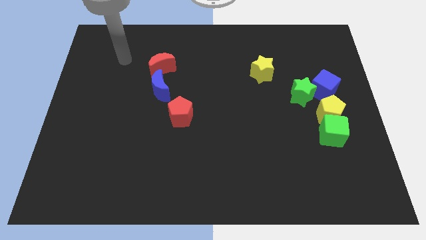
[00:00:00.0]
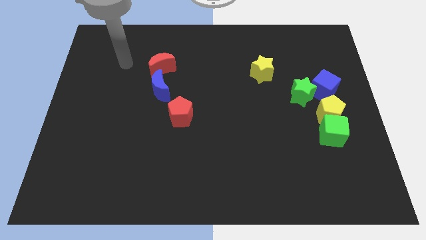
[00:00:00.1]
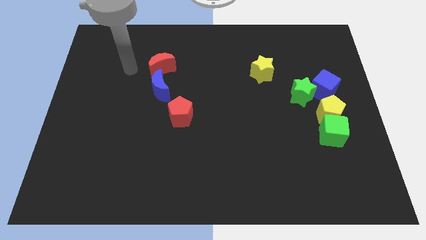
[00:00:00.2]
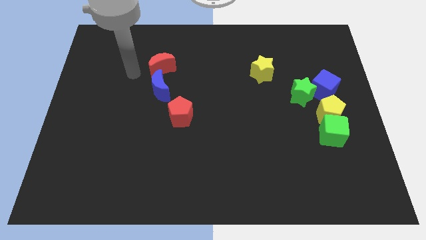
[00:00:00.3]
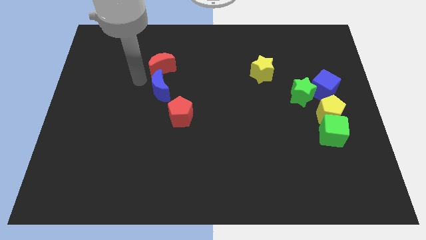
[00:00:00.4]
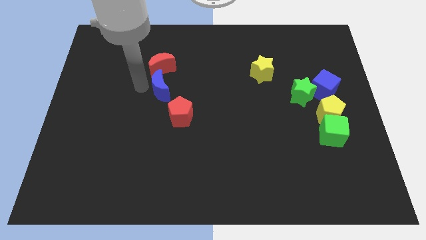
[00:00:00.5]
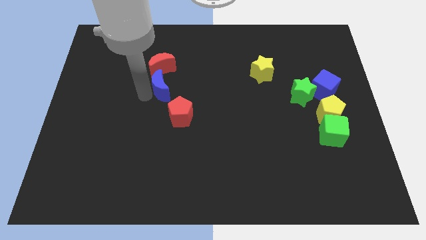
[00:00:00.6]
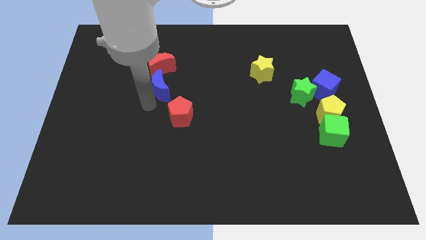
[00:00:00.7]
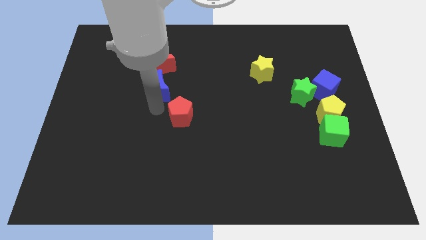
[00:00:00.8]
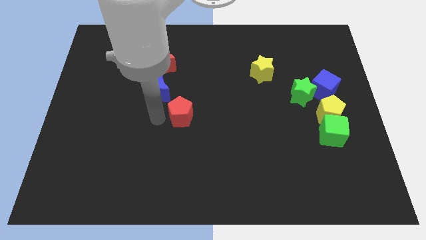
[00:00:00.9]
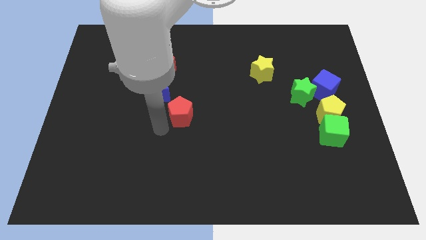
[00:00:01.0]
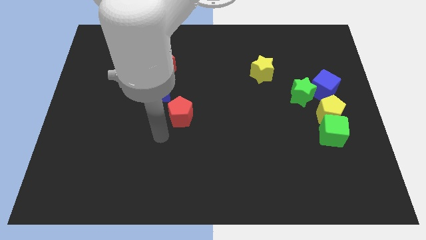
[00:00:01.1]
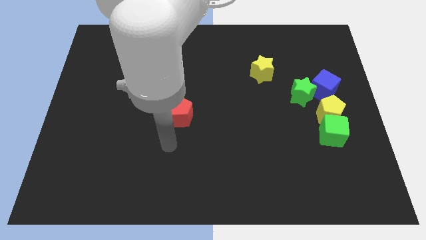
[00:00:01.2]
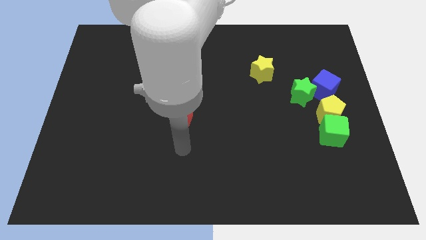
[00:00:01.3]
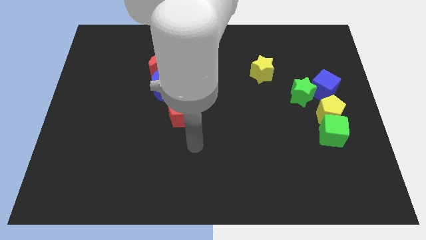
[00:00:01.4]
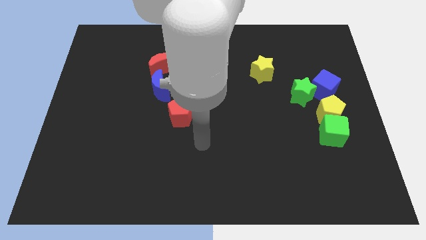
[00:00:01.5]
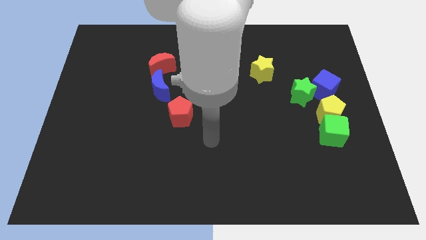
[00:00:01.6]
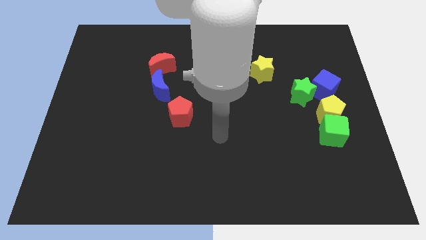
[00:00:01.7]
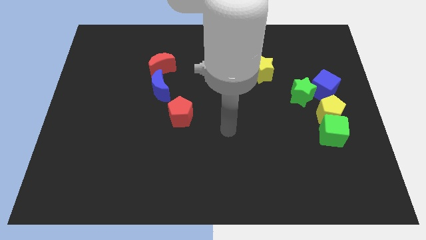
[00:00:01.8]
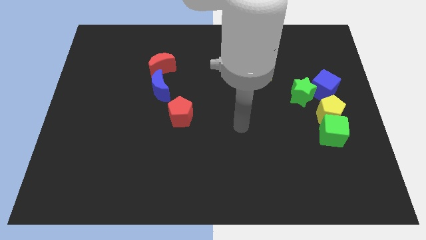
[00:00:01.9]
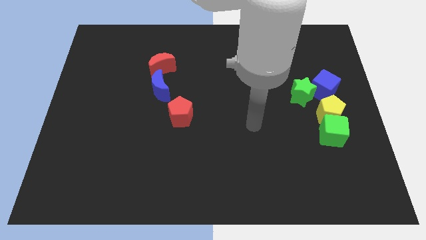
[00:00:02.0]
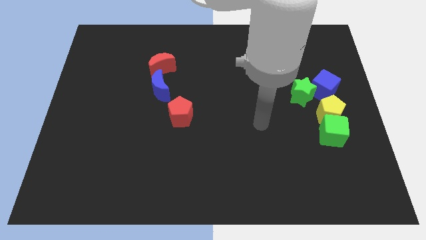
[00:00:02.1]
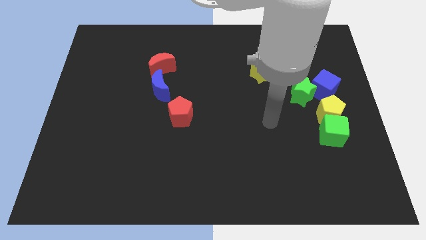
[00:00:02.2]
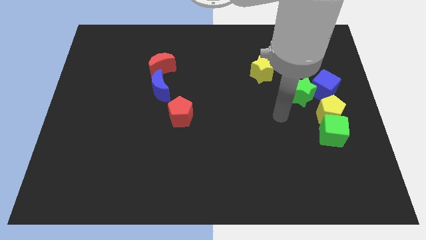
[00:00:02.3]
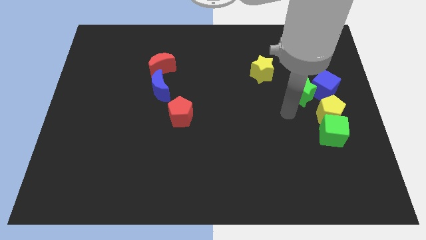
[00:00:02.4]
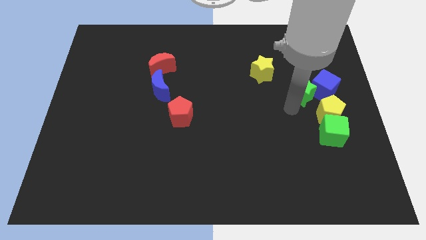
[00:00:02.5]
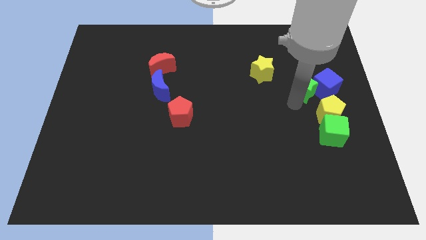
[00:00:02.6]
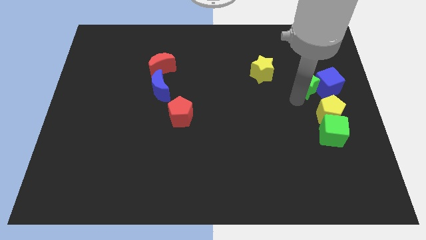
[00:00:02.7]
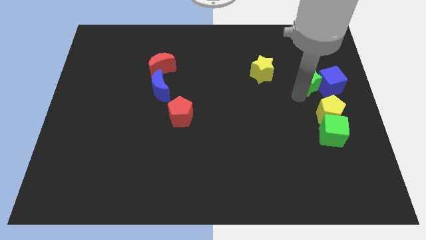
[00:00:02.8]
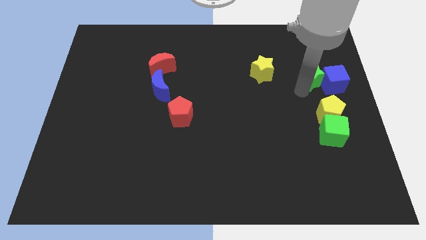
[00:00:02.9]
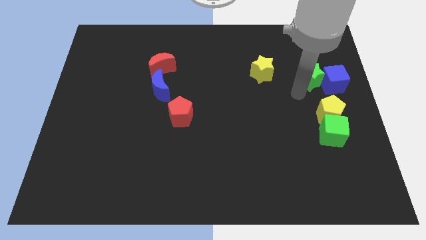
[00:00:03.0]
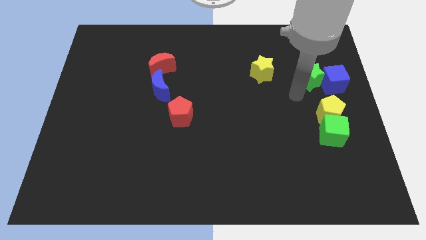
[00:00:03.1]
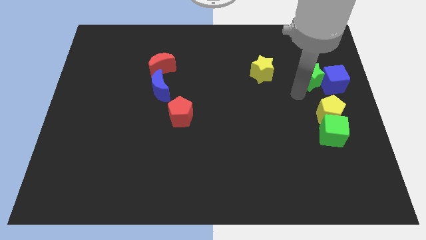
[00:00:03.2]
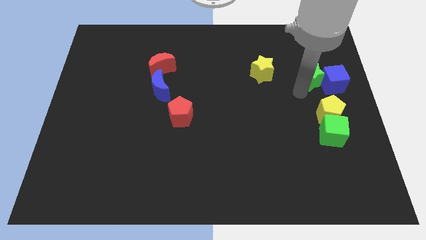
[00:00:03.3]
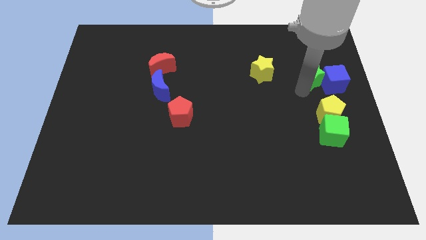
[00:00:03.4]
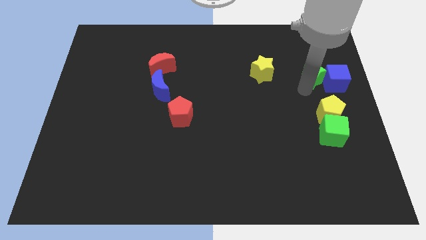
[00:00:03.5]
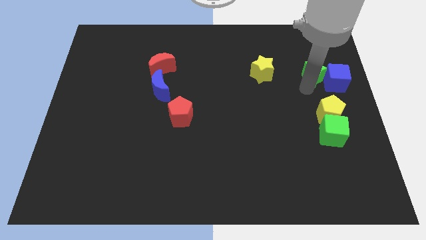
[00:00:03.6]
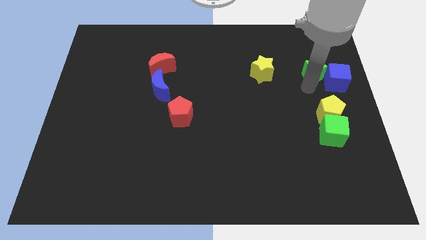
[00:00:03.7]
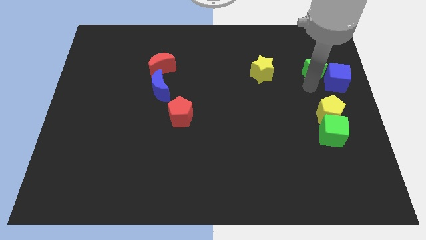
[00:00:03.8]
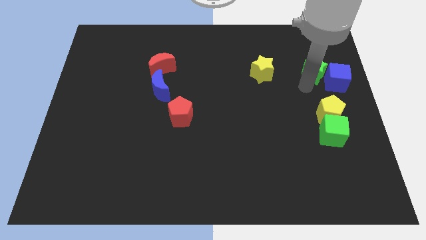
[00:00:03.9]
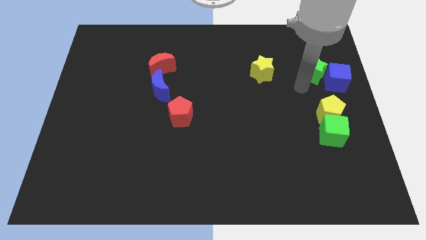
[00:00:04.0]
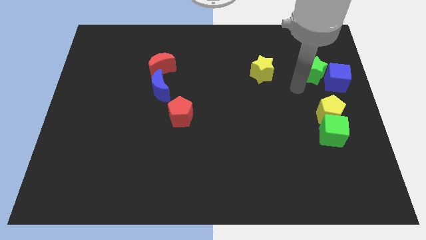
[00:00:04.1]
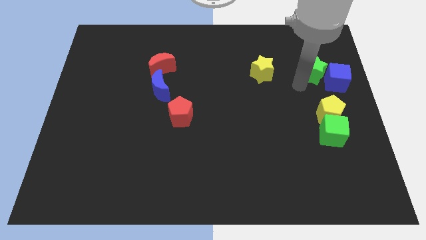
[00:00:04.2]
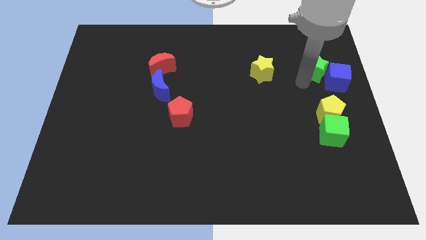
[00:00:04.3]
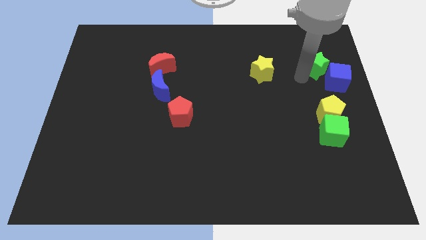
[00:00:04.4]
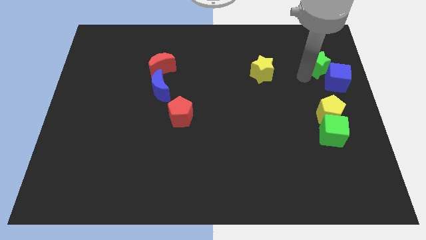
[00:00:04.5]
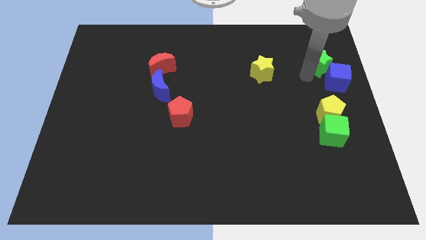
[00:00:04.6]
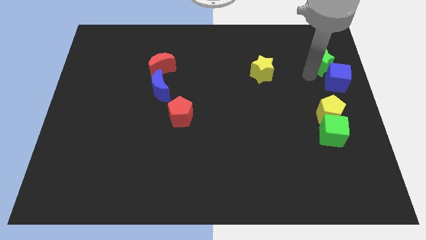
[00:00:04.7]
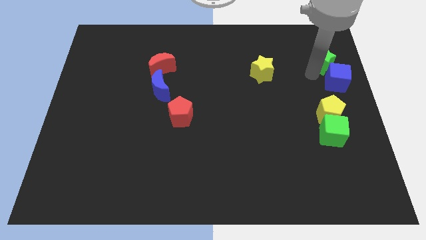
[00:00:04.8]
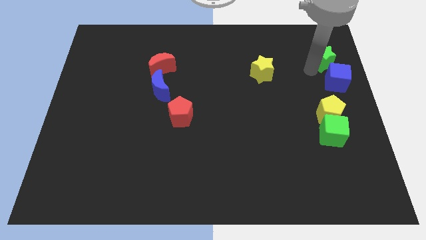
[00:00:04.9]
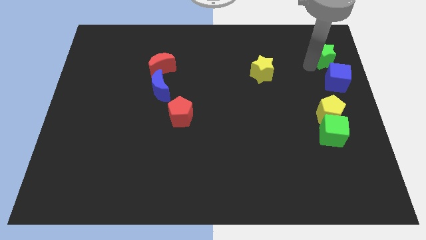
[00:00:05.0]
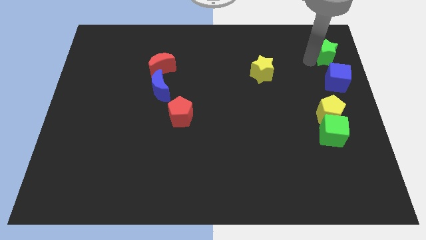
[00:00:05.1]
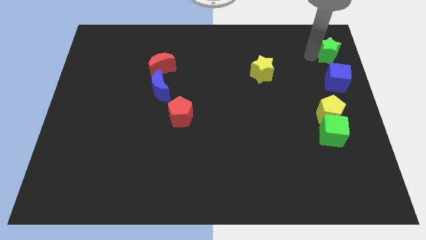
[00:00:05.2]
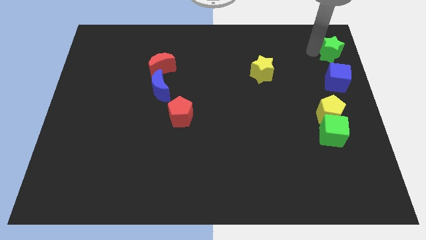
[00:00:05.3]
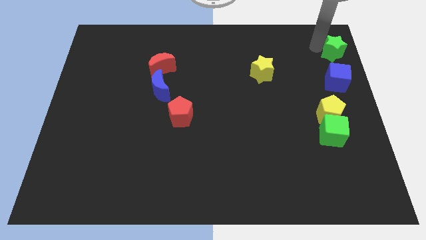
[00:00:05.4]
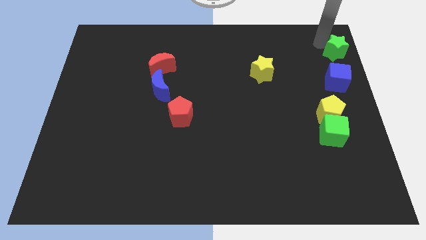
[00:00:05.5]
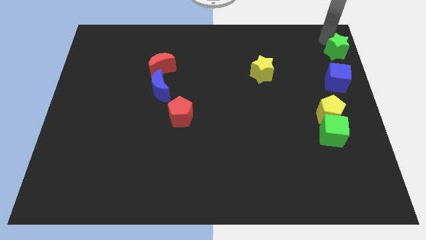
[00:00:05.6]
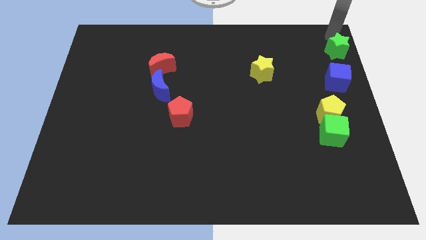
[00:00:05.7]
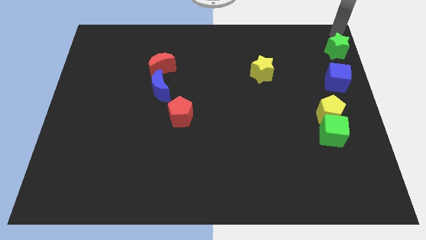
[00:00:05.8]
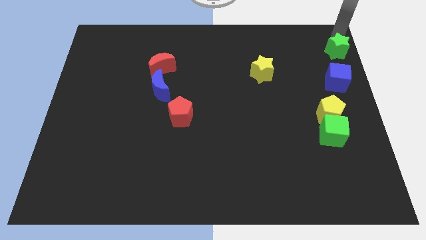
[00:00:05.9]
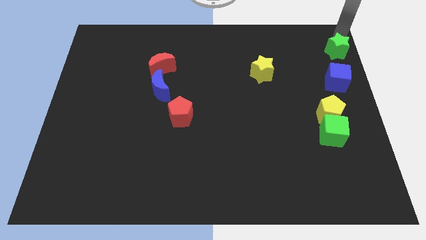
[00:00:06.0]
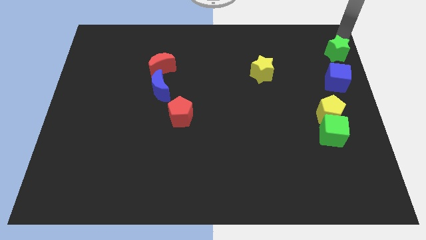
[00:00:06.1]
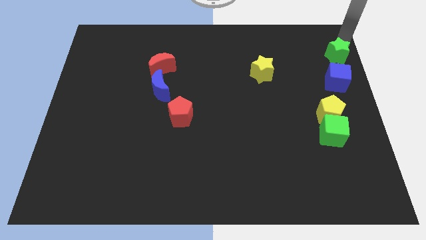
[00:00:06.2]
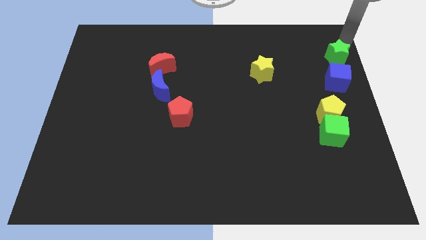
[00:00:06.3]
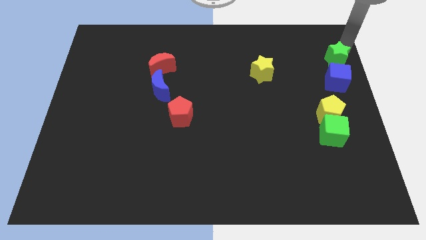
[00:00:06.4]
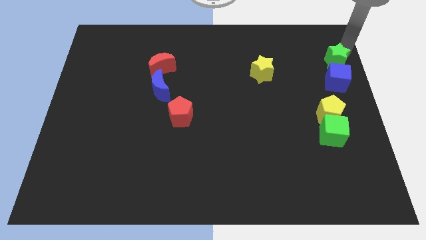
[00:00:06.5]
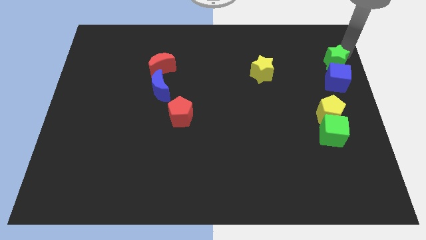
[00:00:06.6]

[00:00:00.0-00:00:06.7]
slide the green star to the right side of the board
